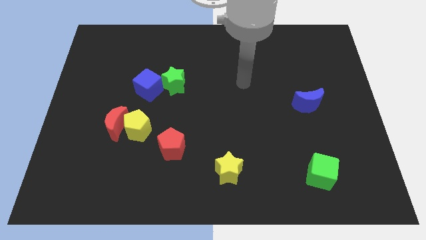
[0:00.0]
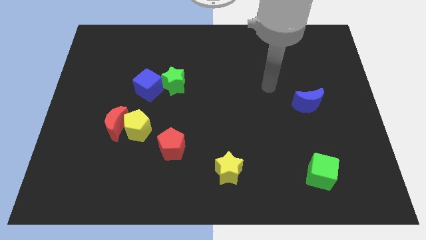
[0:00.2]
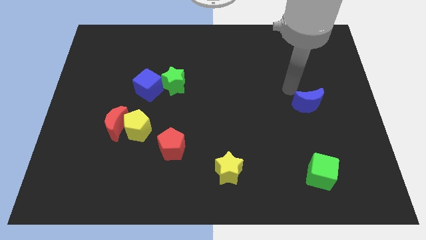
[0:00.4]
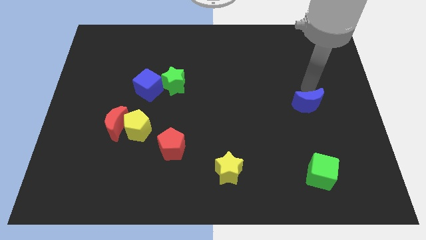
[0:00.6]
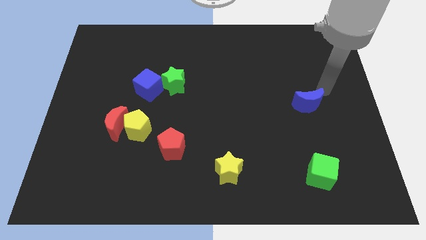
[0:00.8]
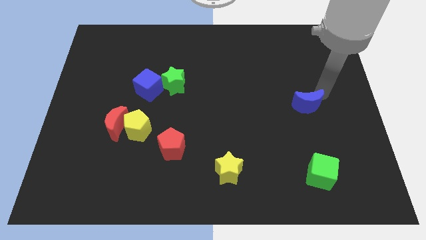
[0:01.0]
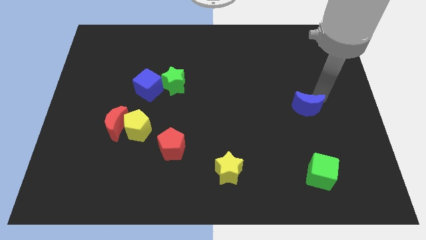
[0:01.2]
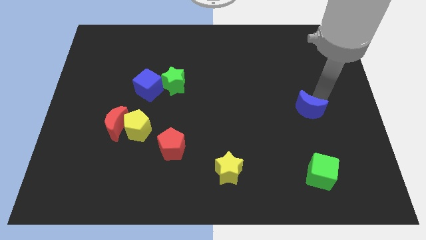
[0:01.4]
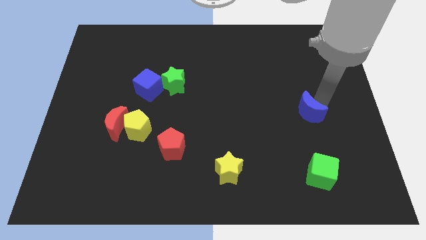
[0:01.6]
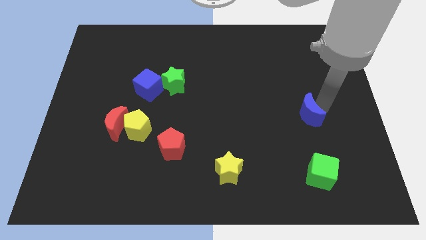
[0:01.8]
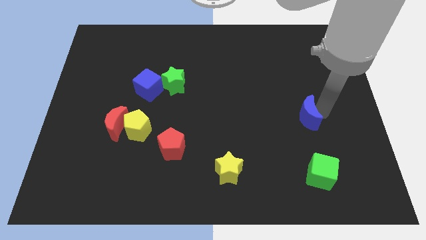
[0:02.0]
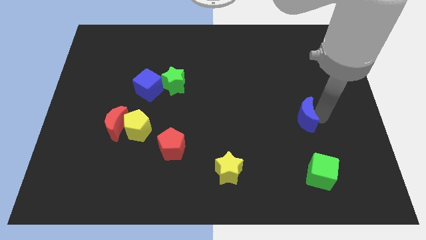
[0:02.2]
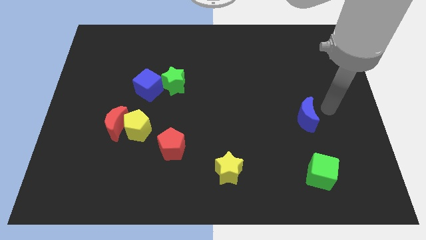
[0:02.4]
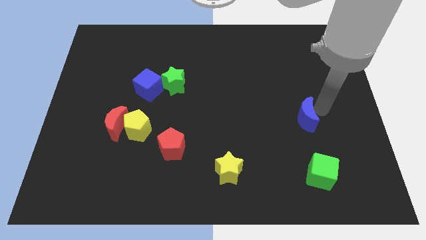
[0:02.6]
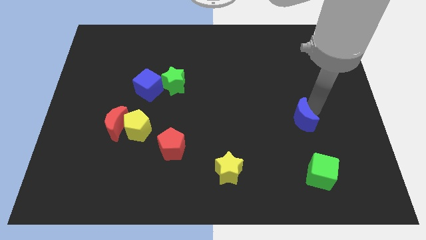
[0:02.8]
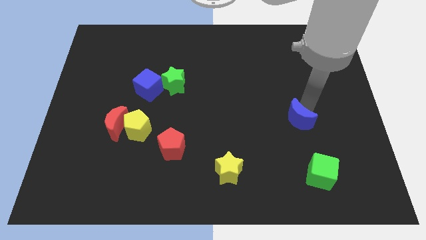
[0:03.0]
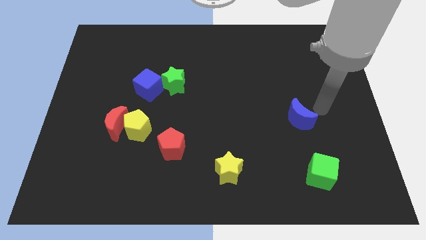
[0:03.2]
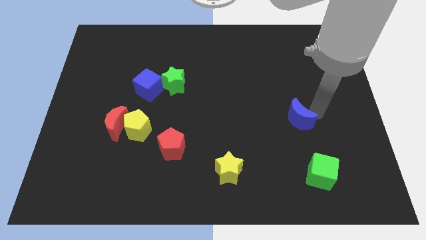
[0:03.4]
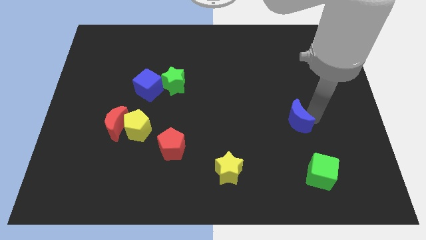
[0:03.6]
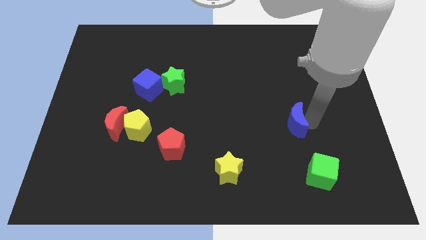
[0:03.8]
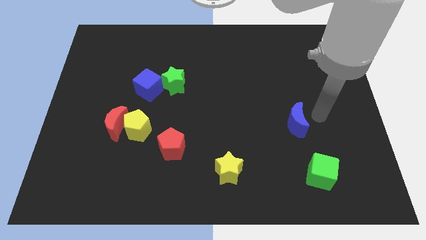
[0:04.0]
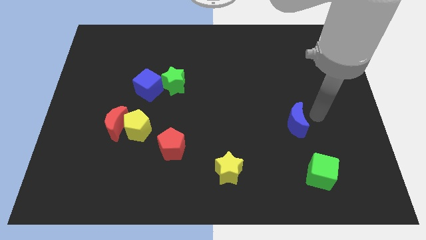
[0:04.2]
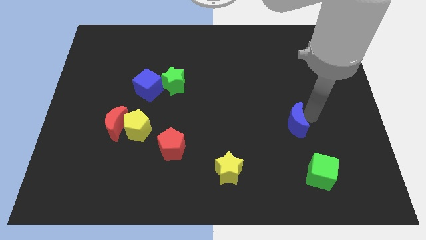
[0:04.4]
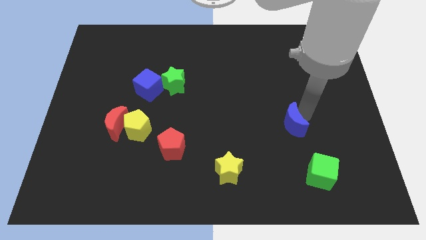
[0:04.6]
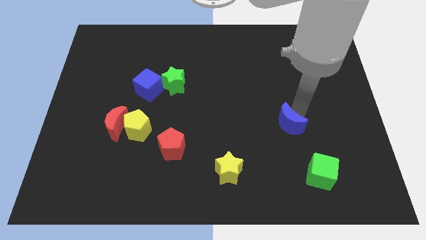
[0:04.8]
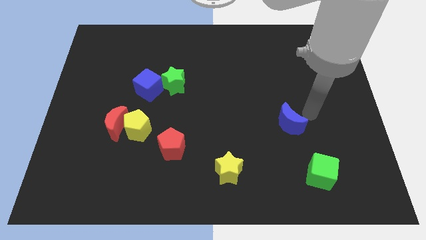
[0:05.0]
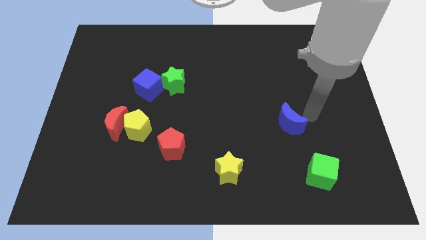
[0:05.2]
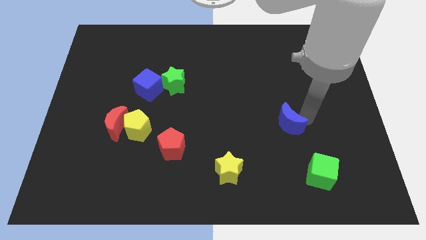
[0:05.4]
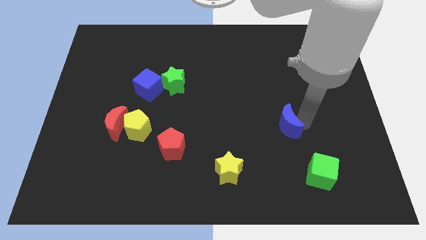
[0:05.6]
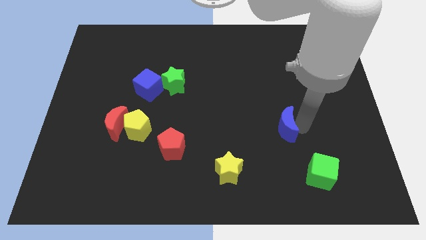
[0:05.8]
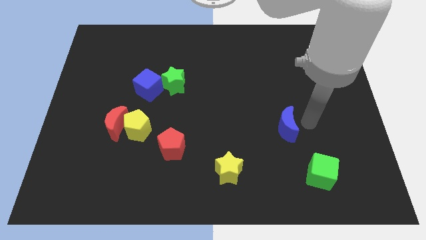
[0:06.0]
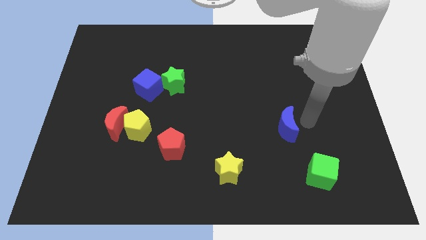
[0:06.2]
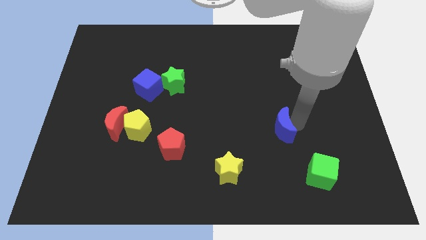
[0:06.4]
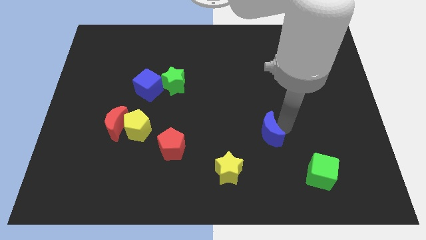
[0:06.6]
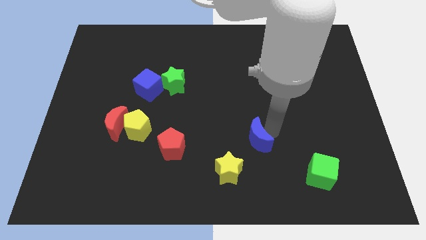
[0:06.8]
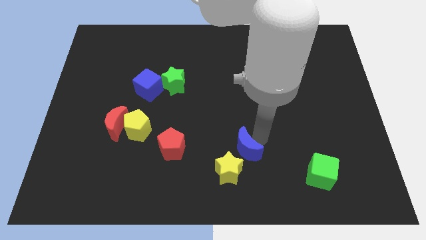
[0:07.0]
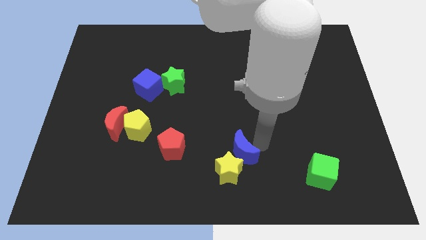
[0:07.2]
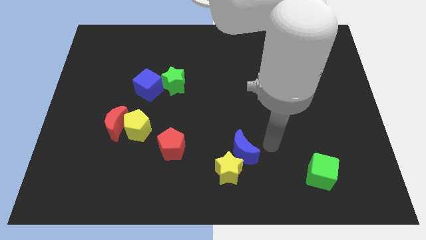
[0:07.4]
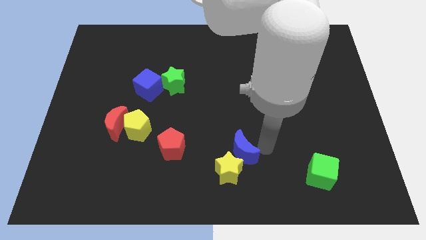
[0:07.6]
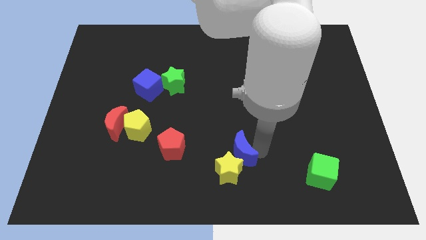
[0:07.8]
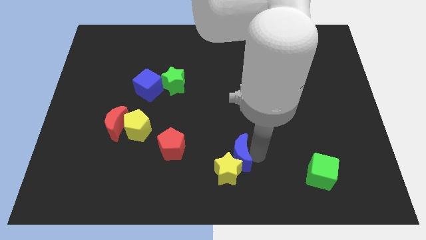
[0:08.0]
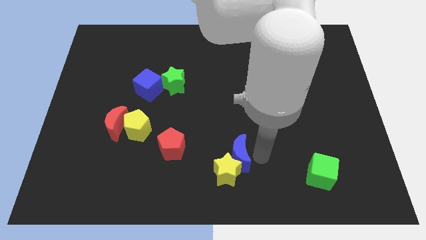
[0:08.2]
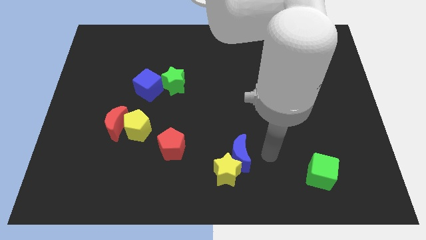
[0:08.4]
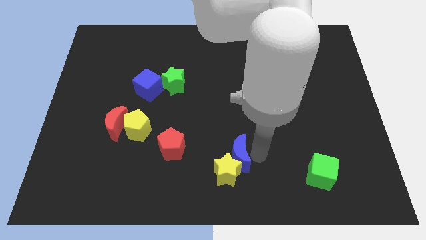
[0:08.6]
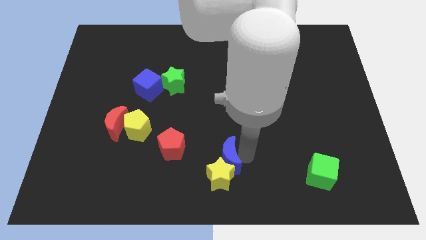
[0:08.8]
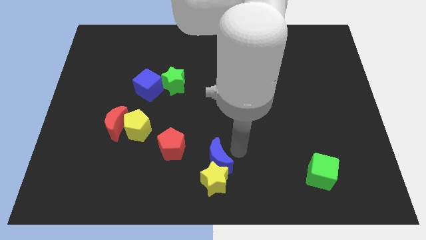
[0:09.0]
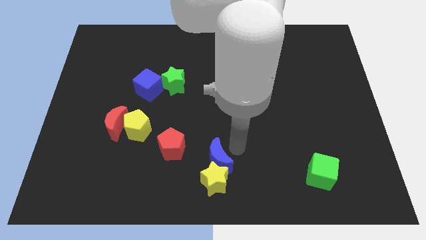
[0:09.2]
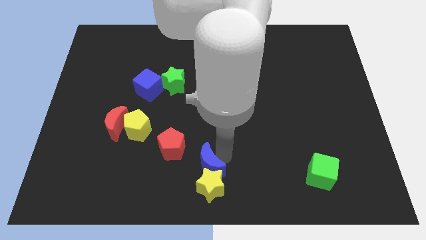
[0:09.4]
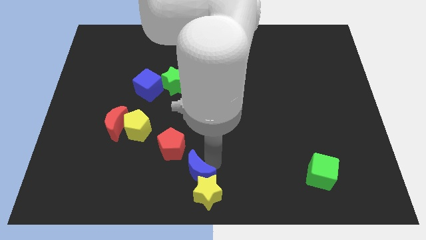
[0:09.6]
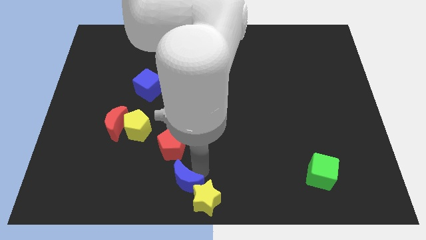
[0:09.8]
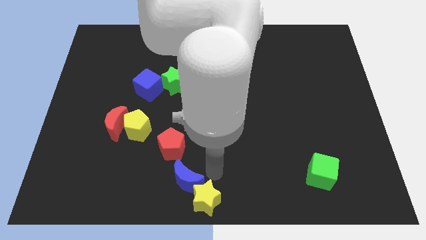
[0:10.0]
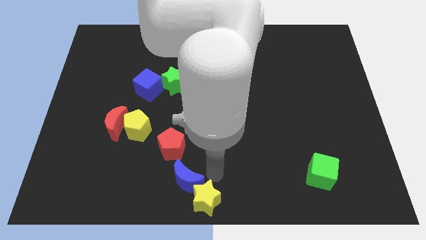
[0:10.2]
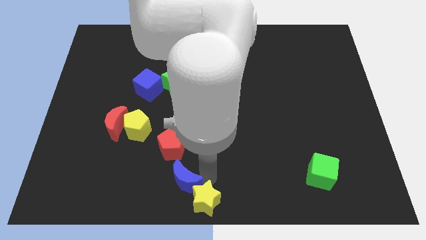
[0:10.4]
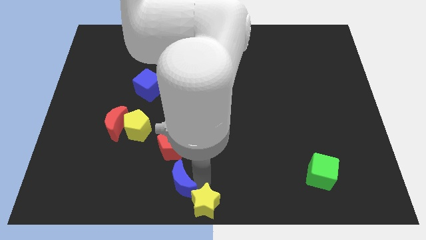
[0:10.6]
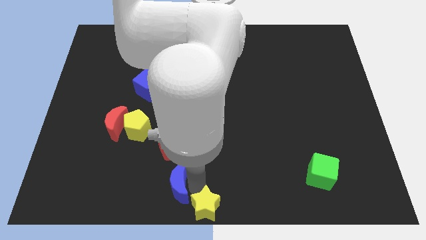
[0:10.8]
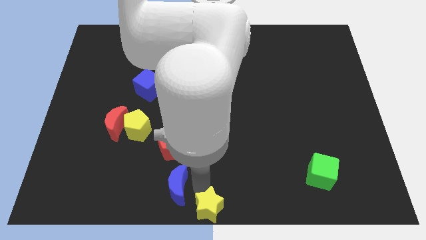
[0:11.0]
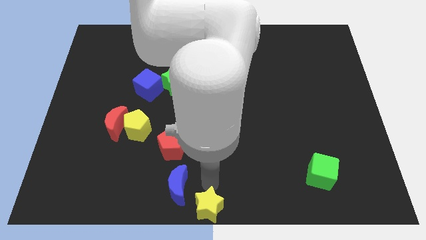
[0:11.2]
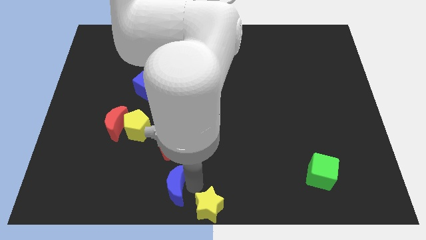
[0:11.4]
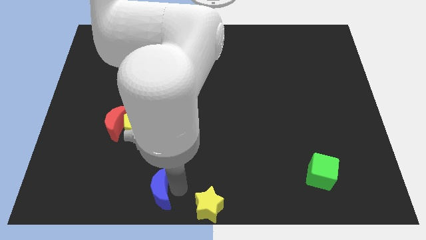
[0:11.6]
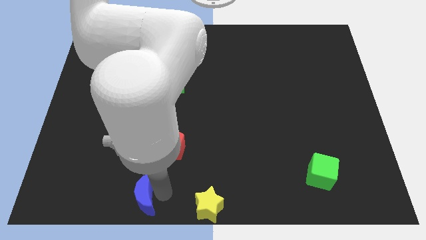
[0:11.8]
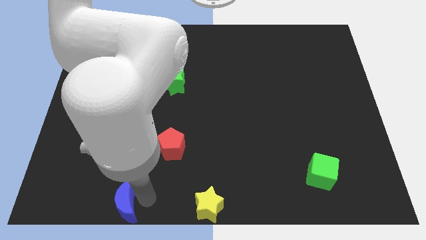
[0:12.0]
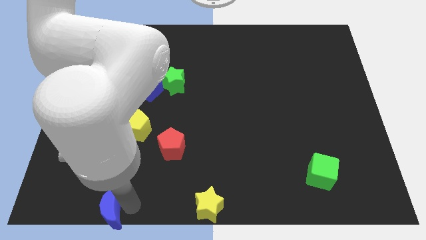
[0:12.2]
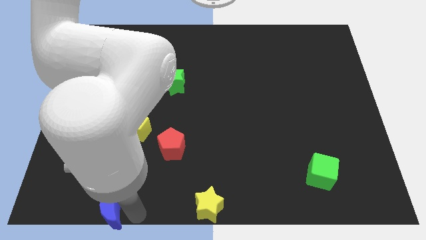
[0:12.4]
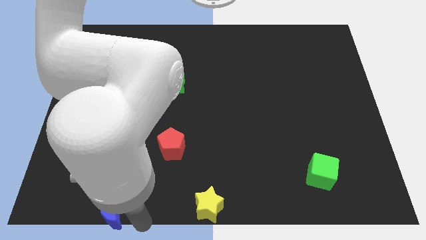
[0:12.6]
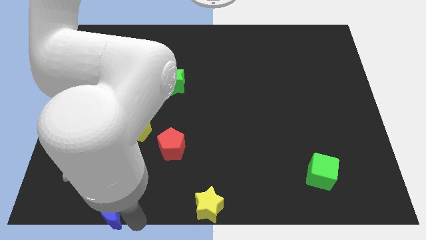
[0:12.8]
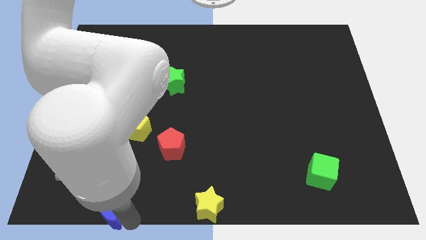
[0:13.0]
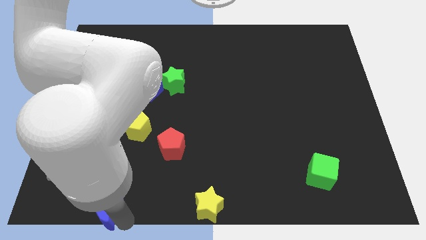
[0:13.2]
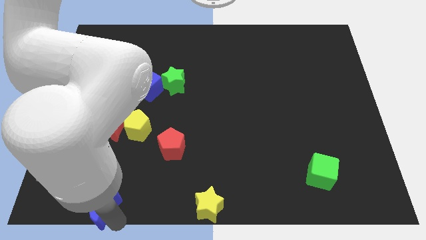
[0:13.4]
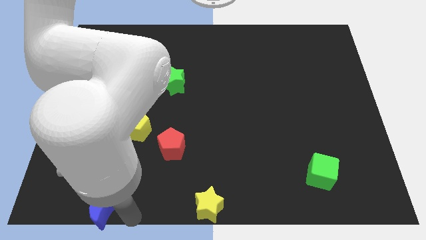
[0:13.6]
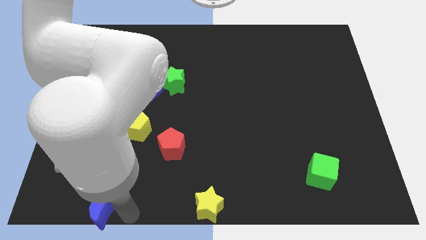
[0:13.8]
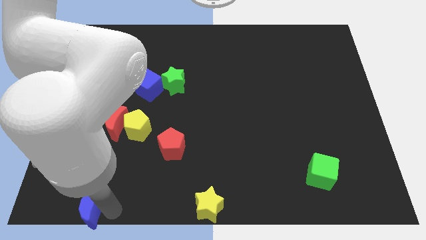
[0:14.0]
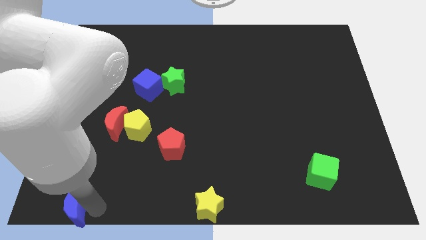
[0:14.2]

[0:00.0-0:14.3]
move the blue moon to the bottom left of the board
